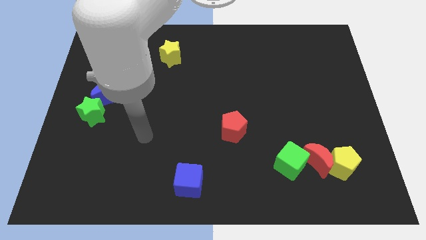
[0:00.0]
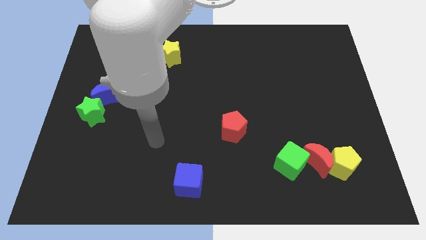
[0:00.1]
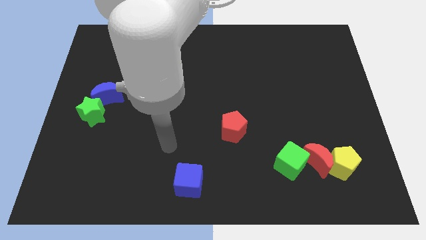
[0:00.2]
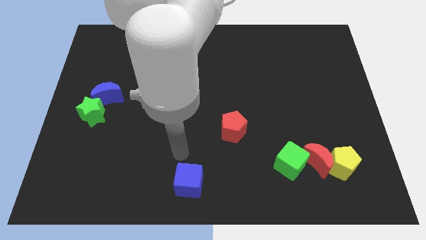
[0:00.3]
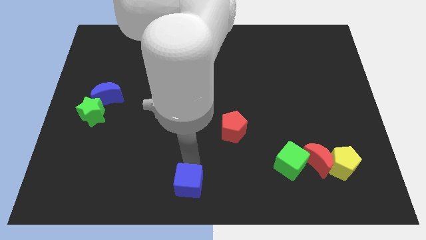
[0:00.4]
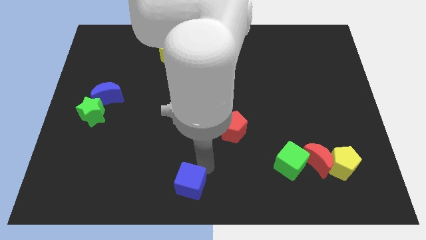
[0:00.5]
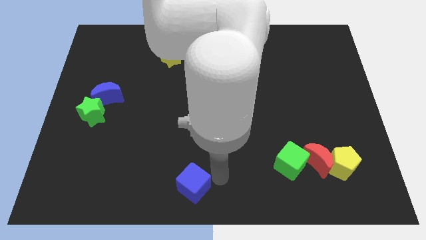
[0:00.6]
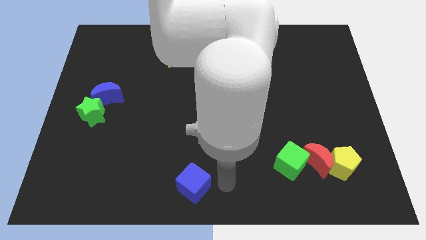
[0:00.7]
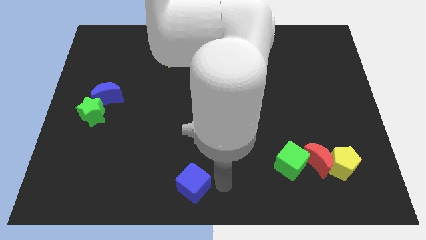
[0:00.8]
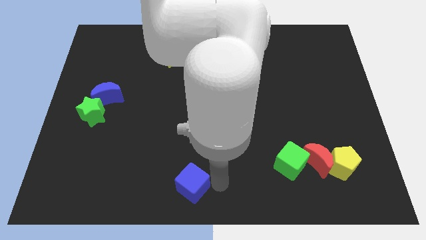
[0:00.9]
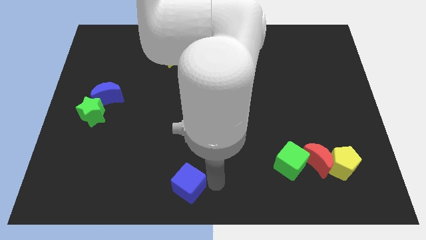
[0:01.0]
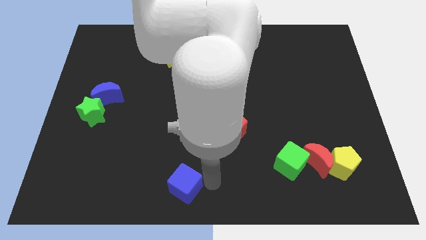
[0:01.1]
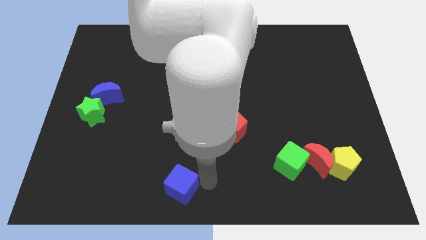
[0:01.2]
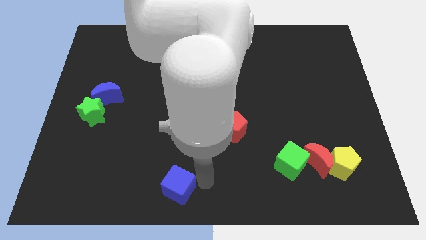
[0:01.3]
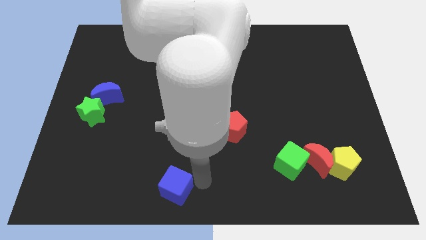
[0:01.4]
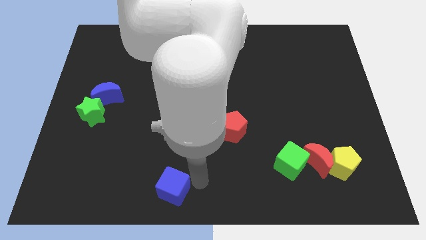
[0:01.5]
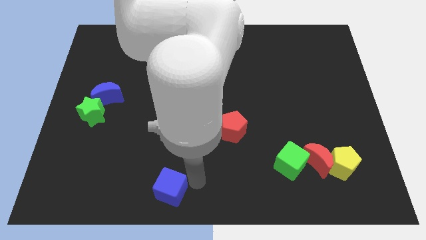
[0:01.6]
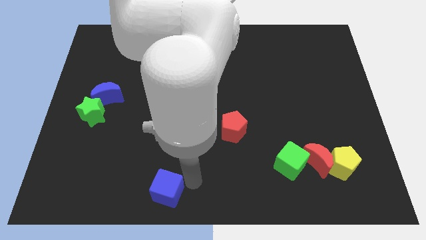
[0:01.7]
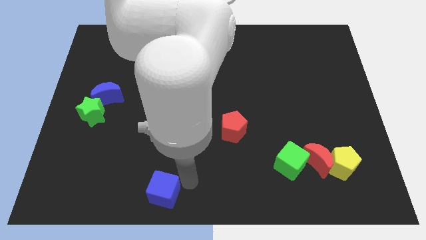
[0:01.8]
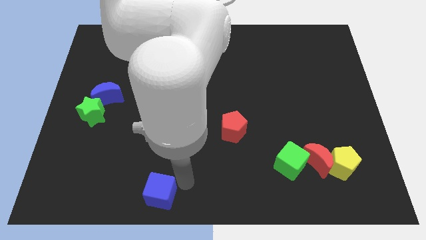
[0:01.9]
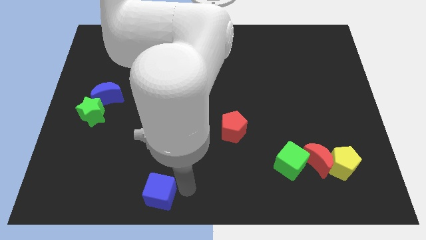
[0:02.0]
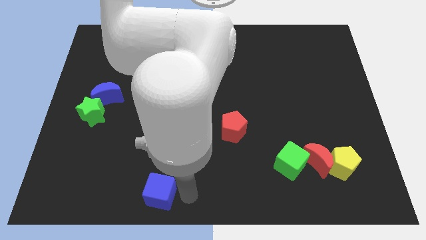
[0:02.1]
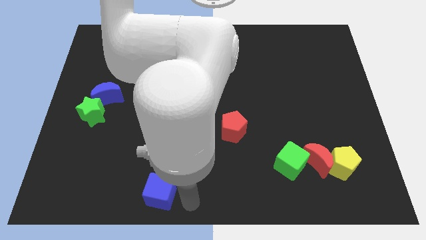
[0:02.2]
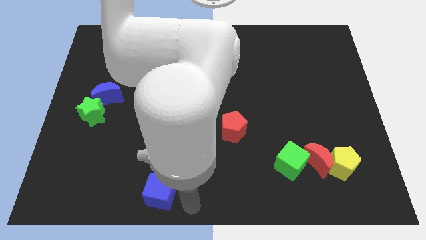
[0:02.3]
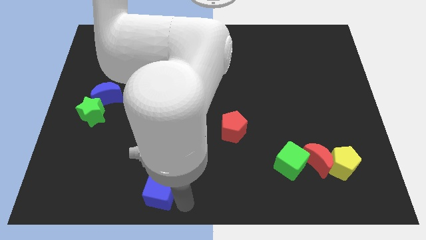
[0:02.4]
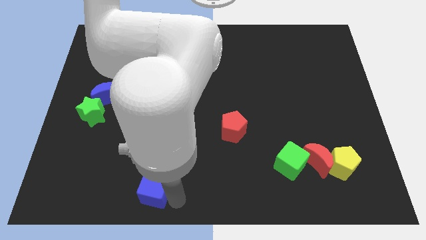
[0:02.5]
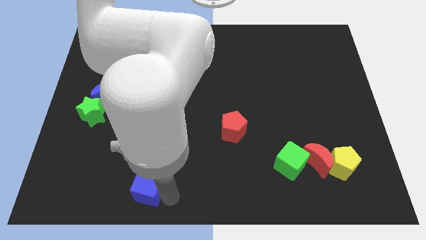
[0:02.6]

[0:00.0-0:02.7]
slightly move the blue cube left

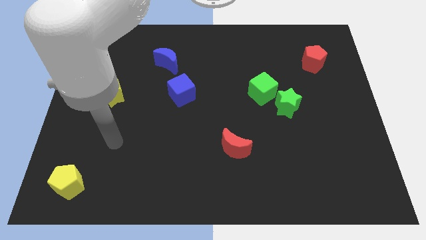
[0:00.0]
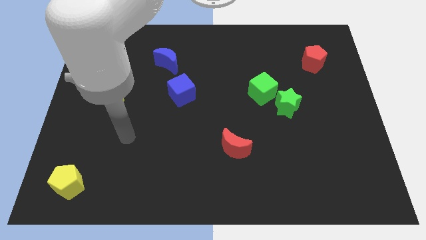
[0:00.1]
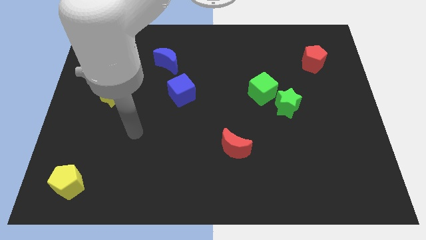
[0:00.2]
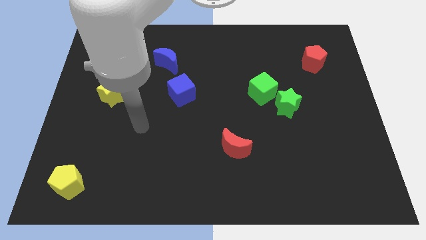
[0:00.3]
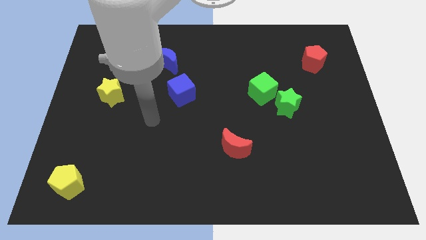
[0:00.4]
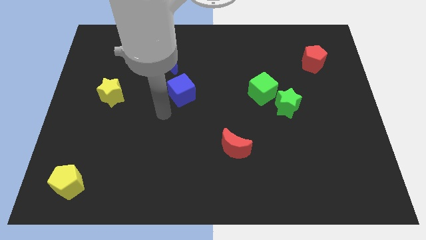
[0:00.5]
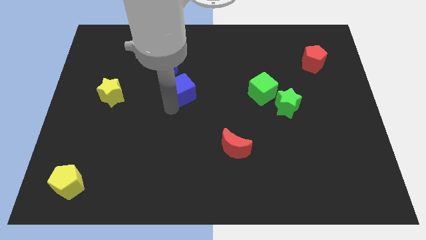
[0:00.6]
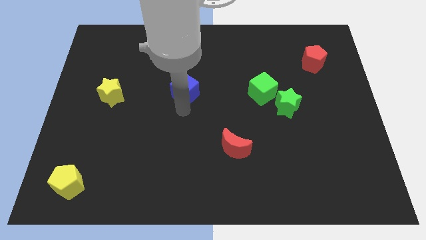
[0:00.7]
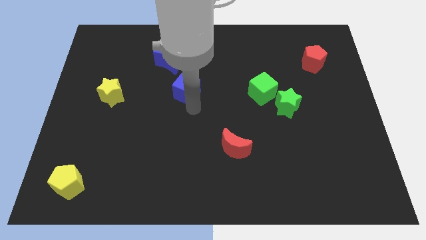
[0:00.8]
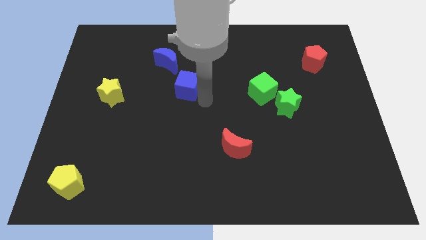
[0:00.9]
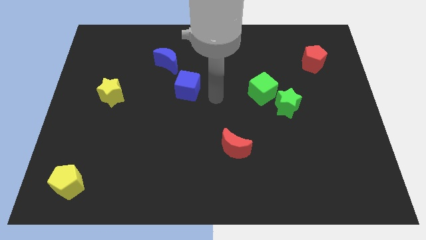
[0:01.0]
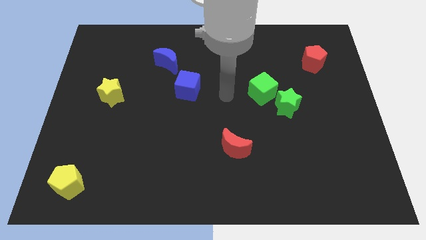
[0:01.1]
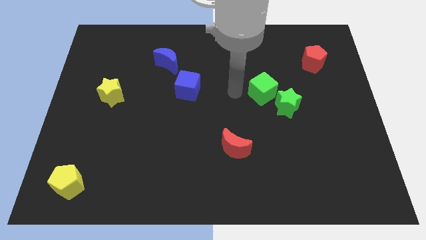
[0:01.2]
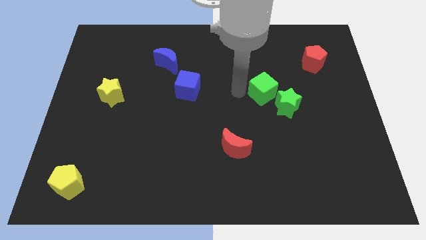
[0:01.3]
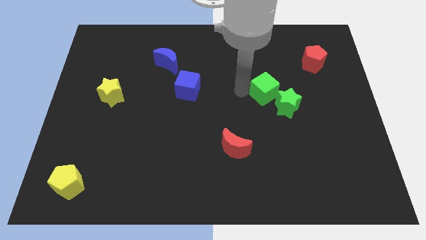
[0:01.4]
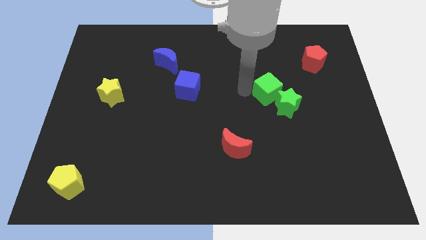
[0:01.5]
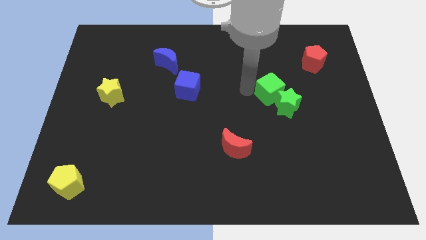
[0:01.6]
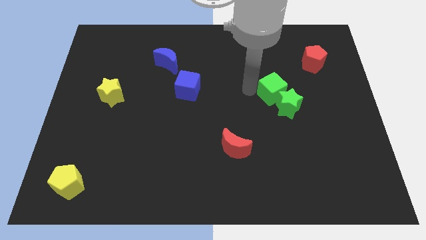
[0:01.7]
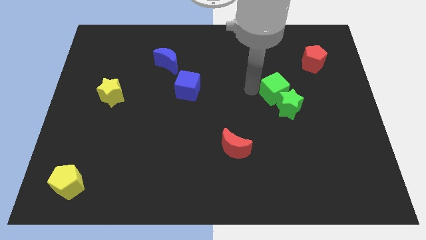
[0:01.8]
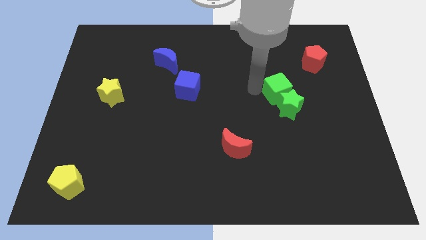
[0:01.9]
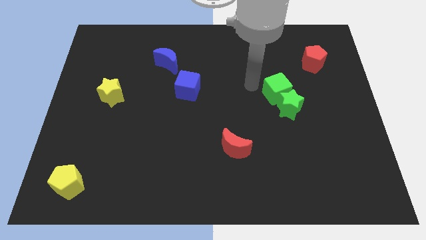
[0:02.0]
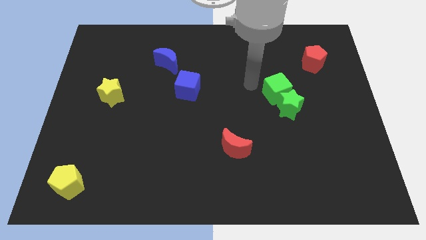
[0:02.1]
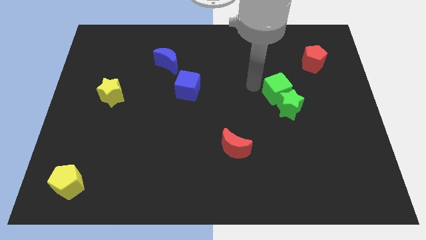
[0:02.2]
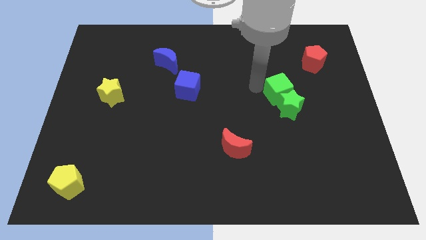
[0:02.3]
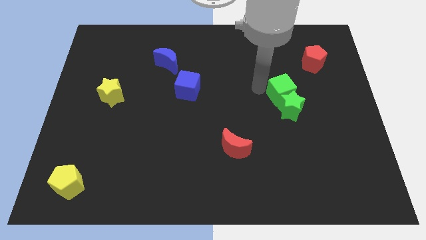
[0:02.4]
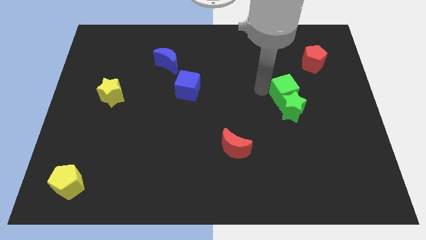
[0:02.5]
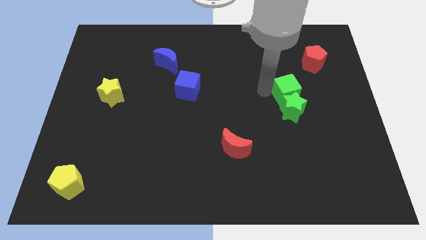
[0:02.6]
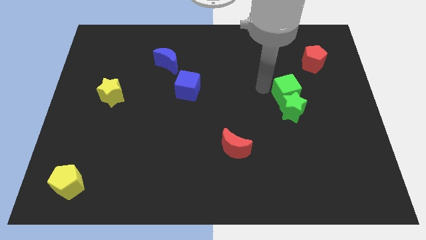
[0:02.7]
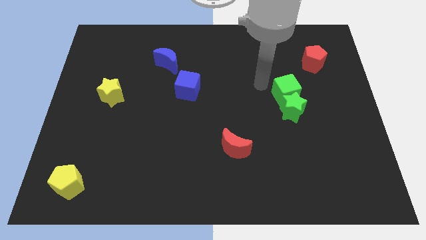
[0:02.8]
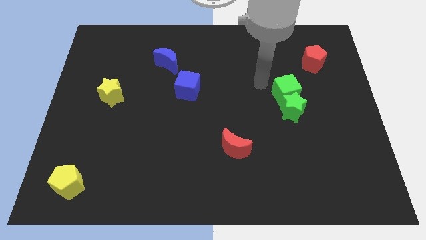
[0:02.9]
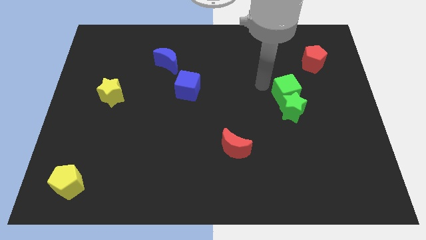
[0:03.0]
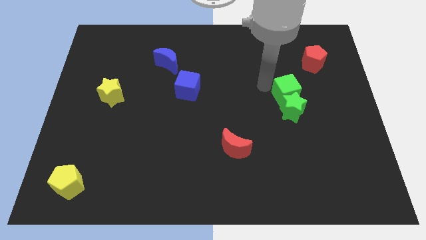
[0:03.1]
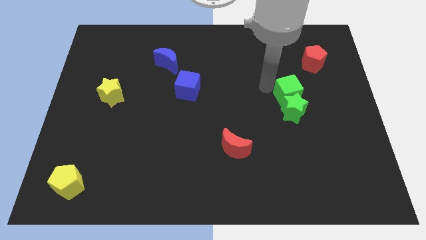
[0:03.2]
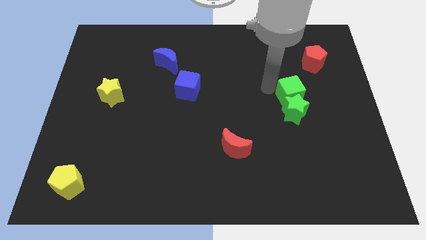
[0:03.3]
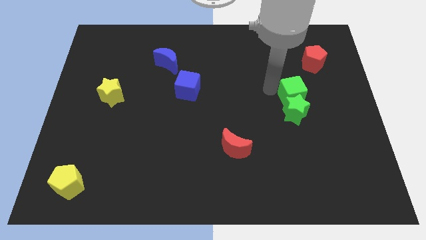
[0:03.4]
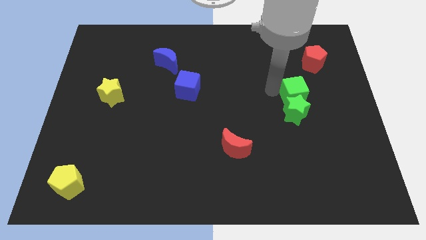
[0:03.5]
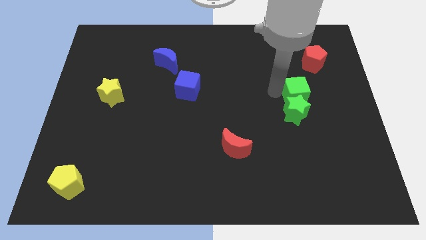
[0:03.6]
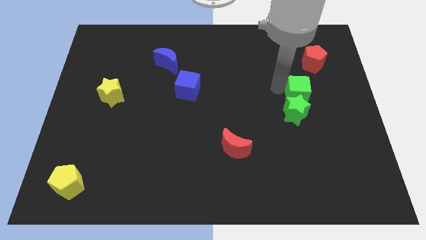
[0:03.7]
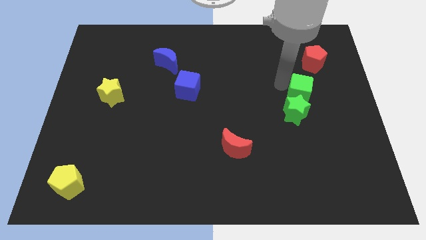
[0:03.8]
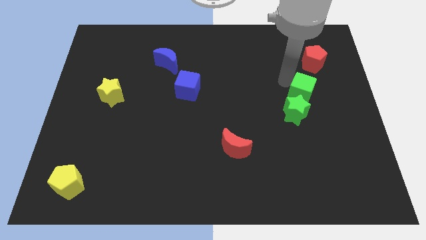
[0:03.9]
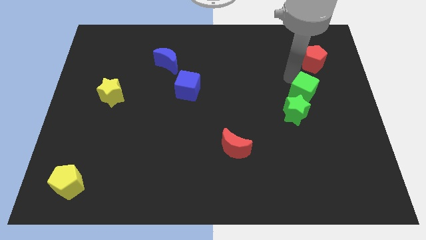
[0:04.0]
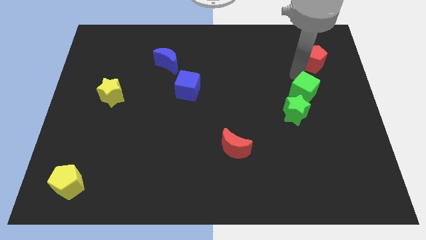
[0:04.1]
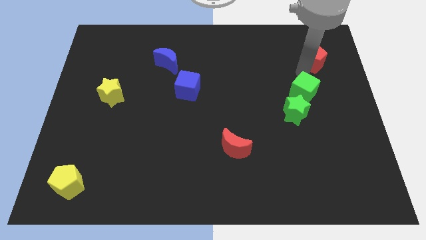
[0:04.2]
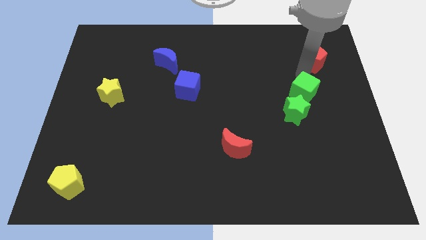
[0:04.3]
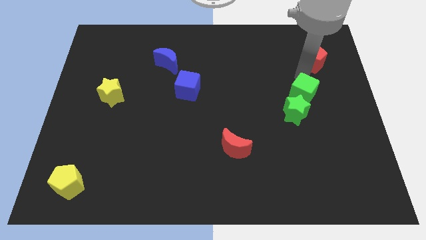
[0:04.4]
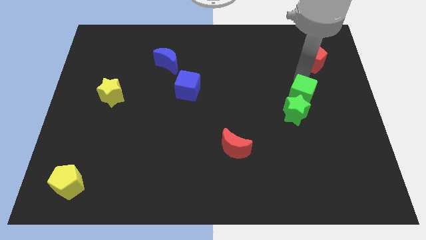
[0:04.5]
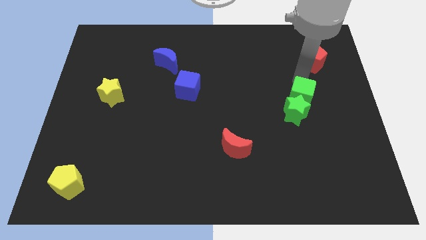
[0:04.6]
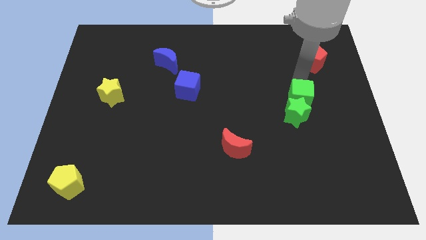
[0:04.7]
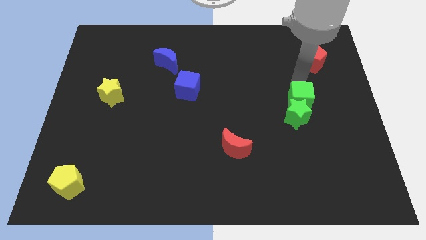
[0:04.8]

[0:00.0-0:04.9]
slightly move the green cube downwards and right diagonally

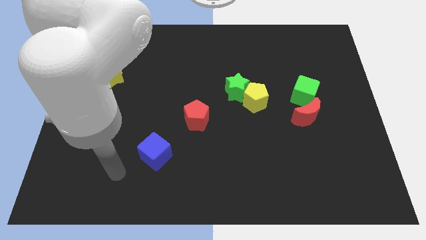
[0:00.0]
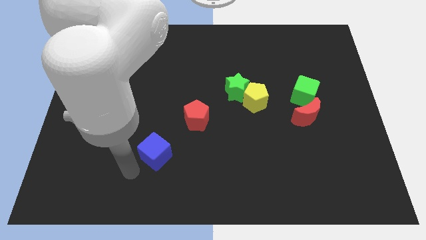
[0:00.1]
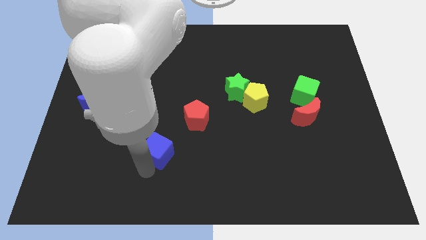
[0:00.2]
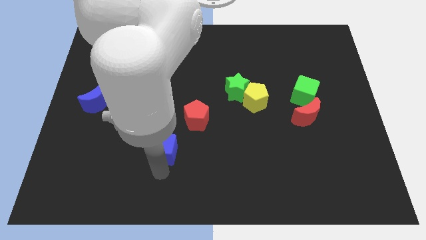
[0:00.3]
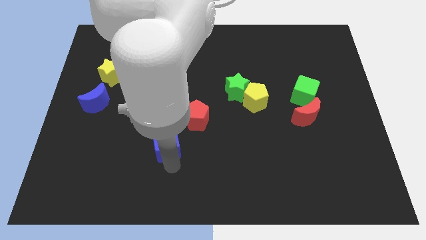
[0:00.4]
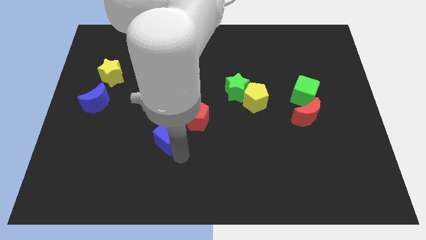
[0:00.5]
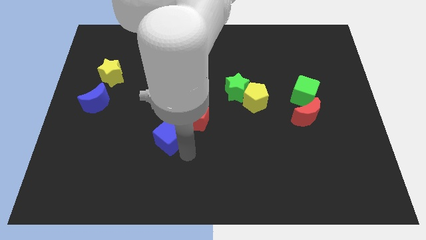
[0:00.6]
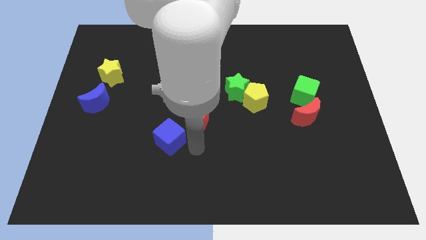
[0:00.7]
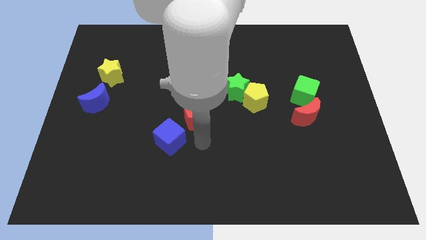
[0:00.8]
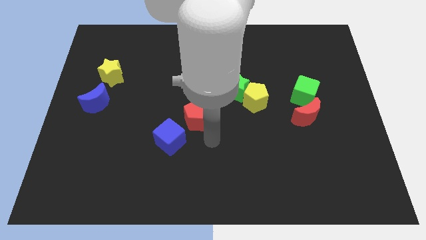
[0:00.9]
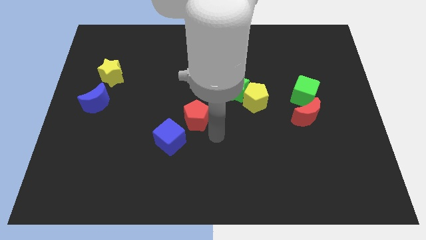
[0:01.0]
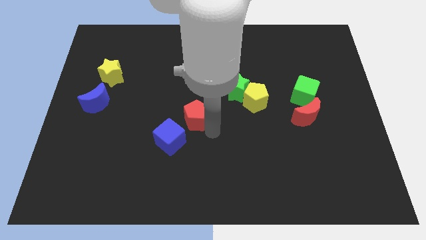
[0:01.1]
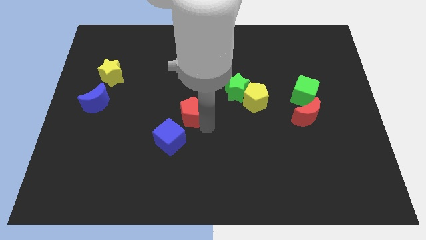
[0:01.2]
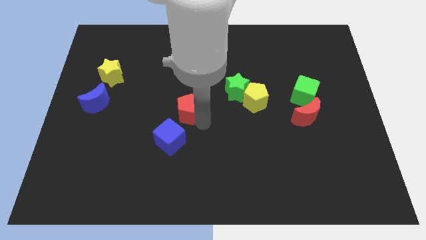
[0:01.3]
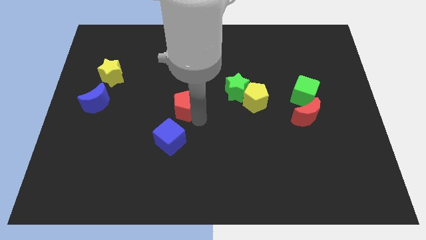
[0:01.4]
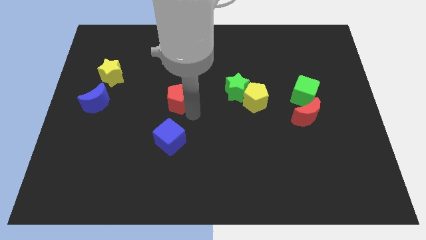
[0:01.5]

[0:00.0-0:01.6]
push the red pentagon somewhat upwards and left
